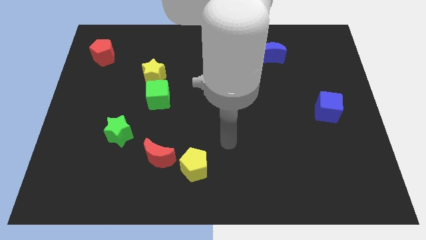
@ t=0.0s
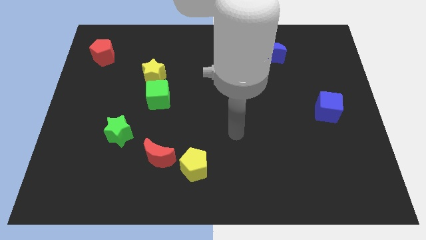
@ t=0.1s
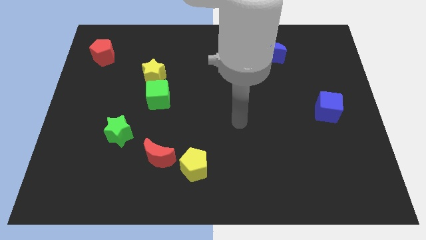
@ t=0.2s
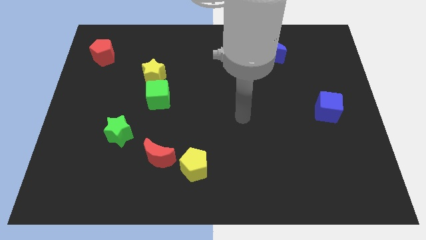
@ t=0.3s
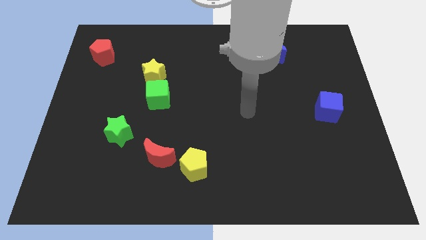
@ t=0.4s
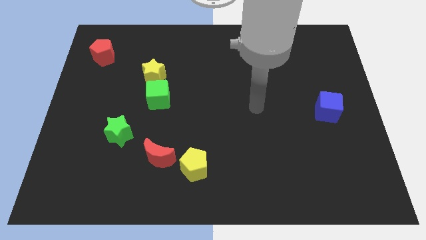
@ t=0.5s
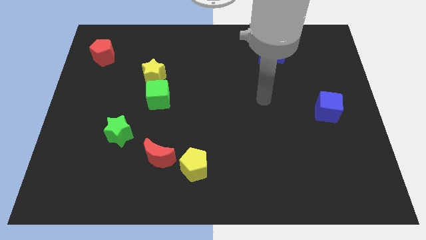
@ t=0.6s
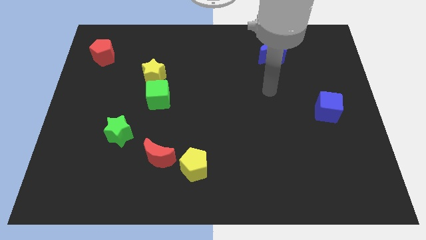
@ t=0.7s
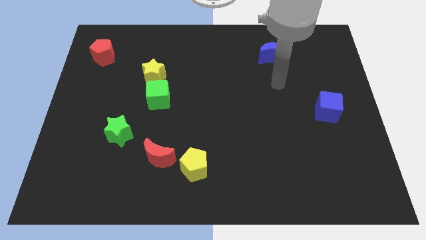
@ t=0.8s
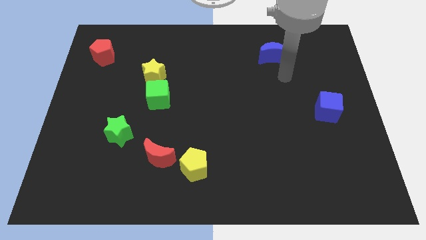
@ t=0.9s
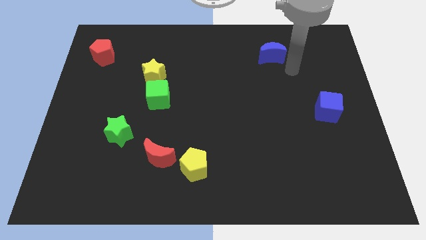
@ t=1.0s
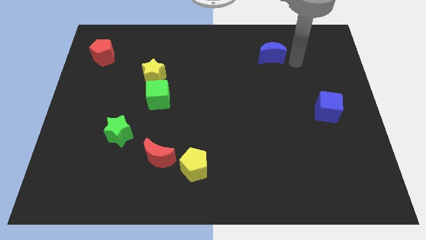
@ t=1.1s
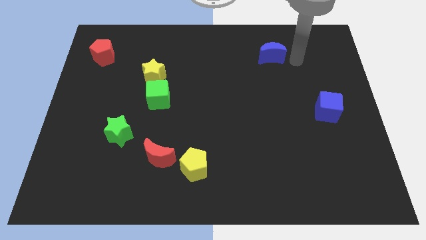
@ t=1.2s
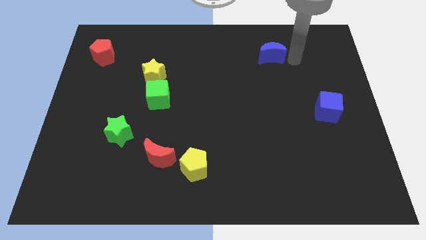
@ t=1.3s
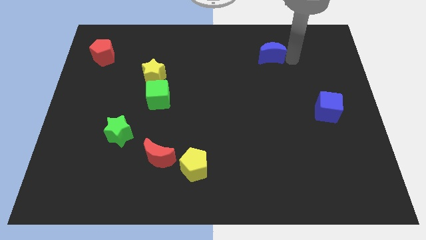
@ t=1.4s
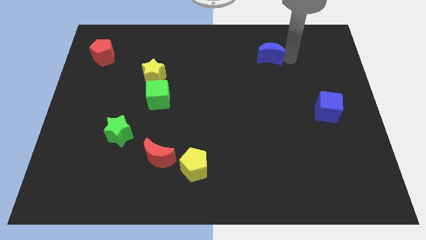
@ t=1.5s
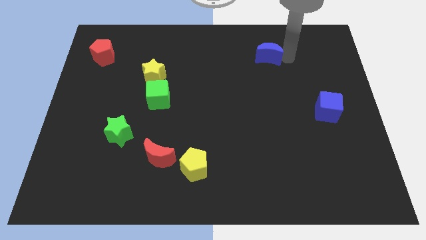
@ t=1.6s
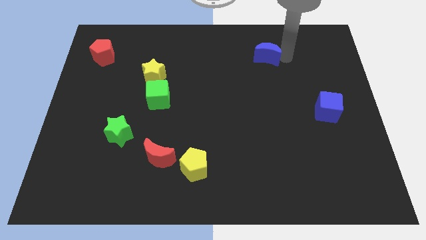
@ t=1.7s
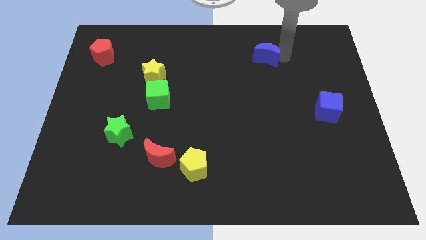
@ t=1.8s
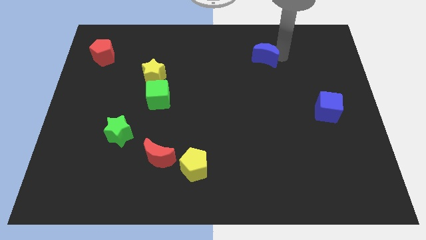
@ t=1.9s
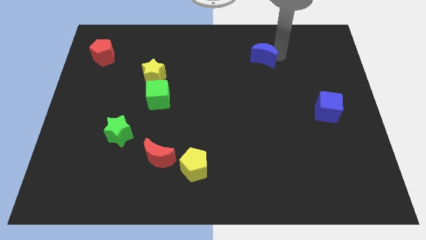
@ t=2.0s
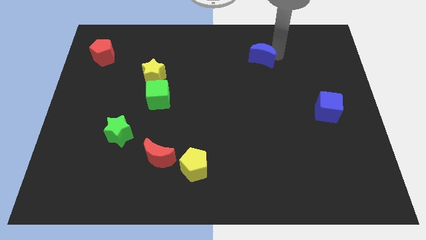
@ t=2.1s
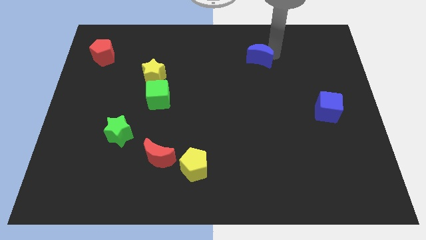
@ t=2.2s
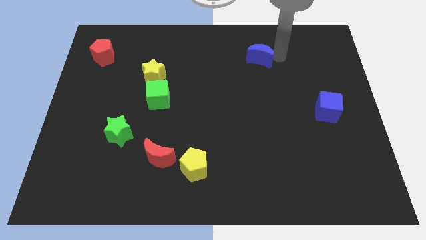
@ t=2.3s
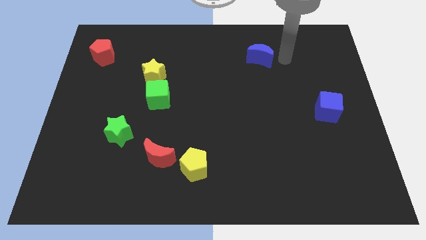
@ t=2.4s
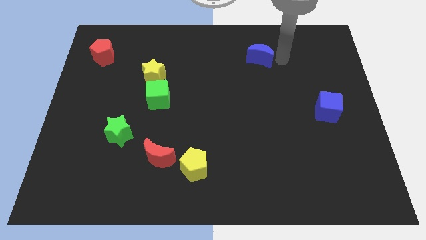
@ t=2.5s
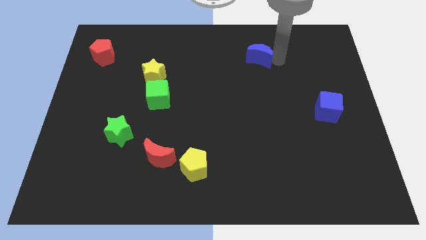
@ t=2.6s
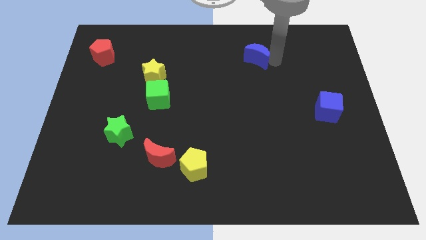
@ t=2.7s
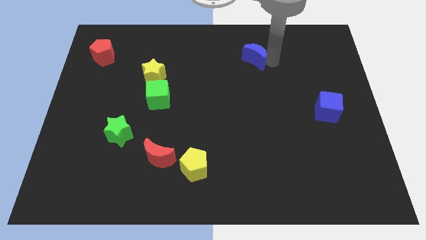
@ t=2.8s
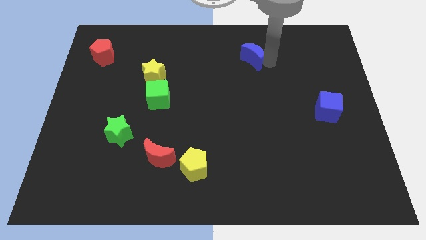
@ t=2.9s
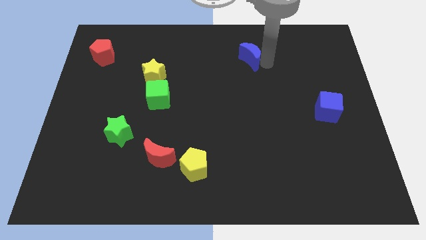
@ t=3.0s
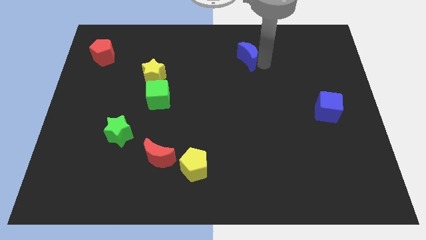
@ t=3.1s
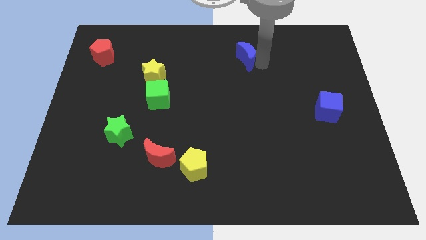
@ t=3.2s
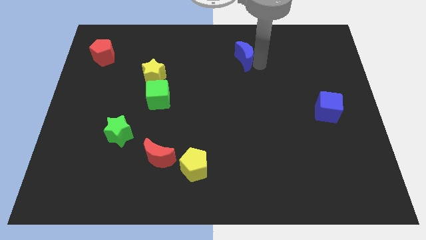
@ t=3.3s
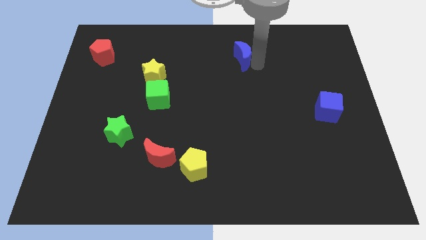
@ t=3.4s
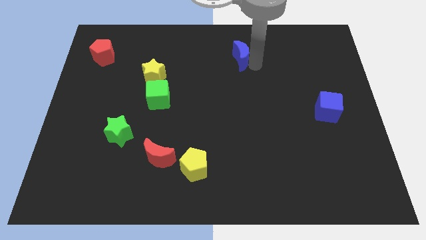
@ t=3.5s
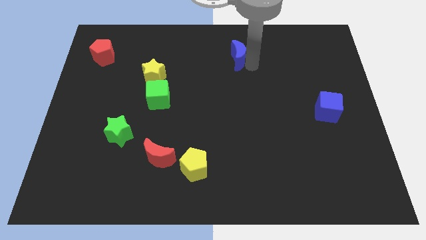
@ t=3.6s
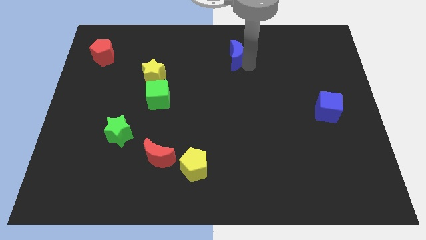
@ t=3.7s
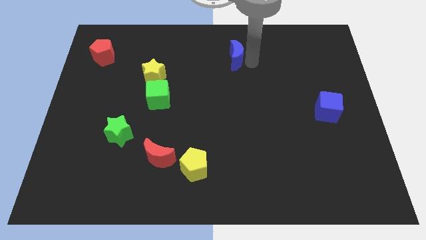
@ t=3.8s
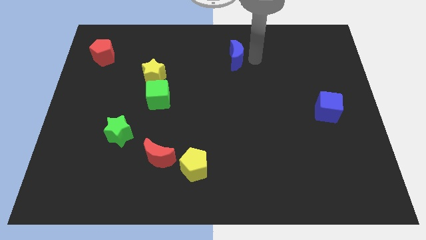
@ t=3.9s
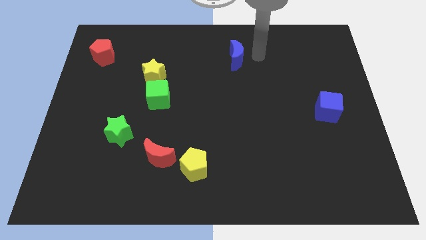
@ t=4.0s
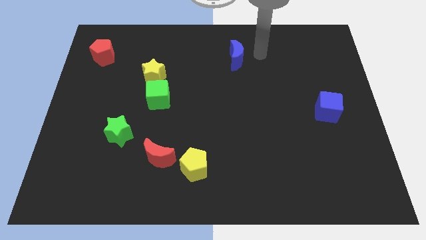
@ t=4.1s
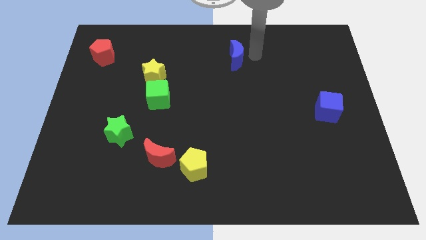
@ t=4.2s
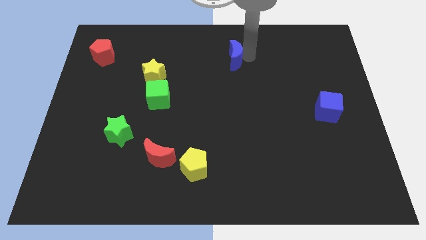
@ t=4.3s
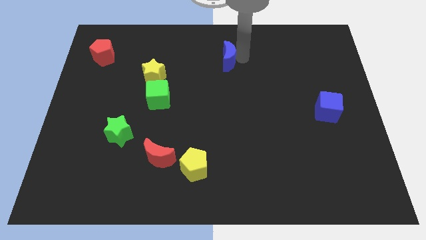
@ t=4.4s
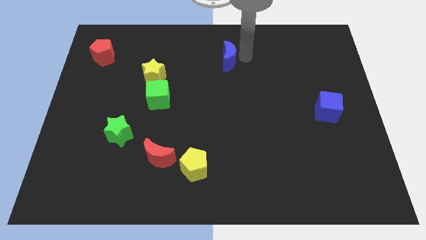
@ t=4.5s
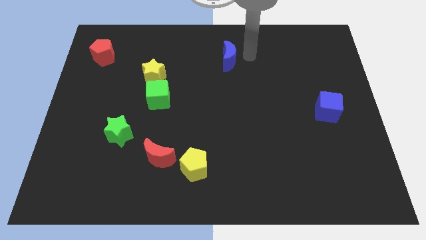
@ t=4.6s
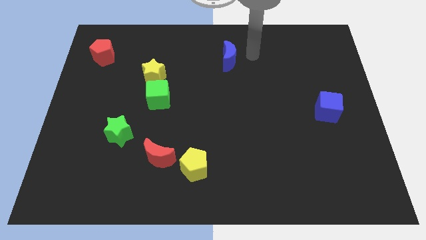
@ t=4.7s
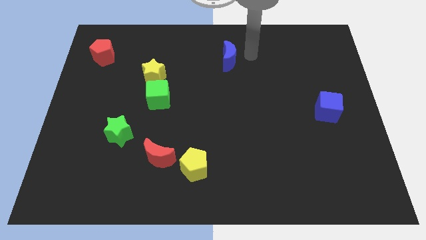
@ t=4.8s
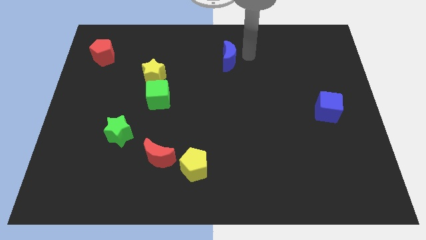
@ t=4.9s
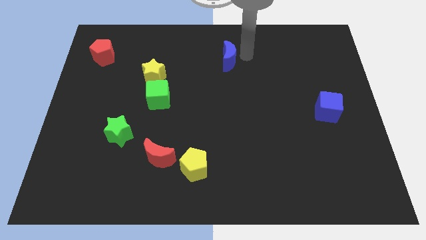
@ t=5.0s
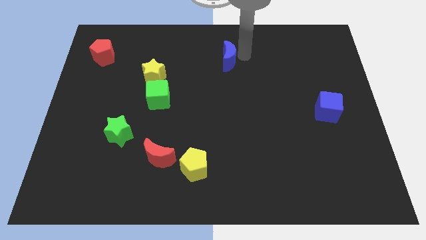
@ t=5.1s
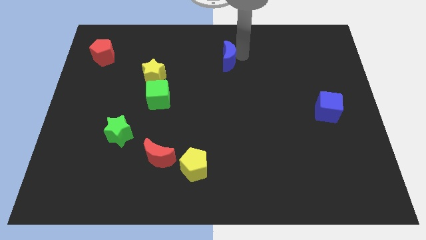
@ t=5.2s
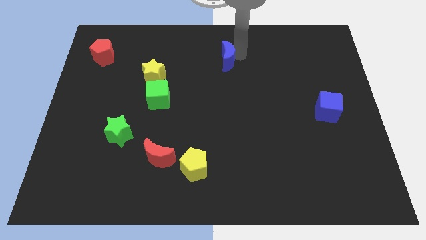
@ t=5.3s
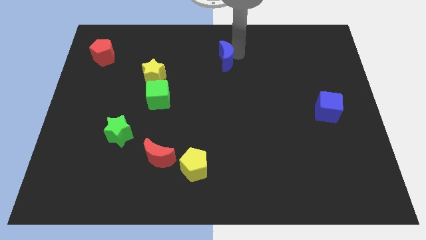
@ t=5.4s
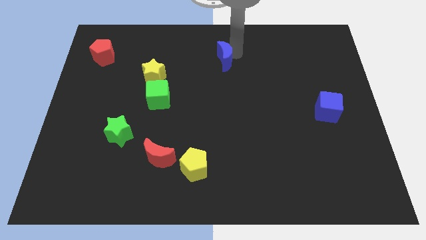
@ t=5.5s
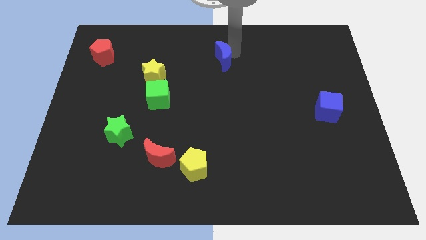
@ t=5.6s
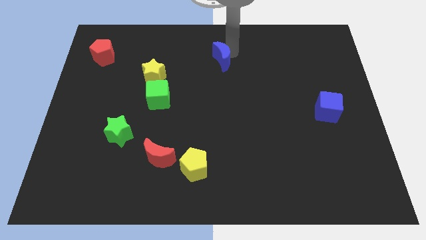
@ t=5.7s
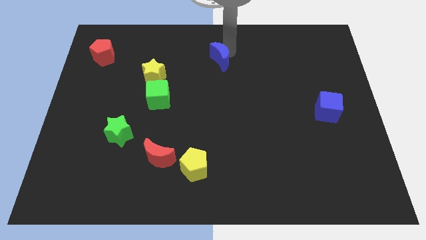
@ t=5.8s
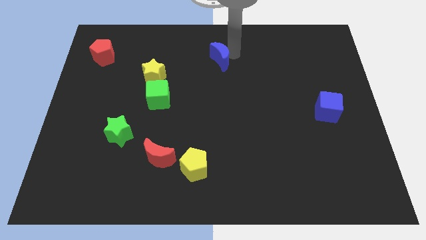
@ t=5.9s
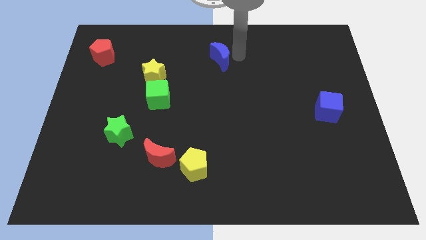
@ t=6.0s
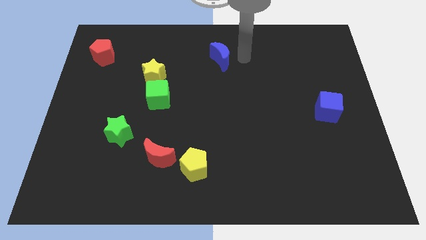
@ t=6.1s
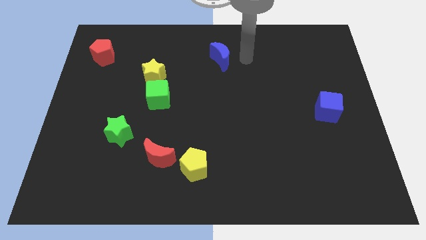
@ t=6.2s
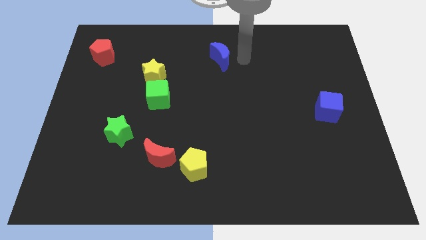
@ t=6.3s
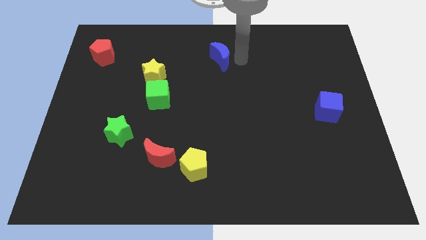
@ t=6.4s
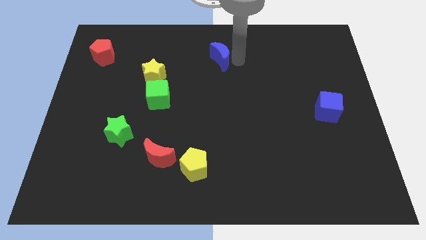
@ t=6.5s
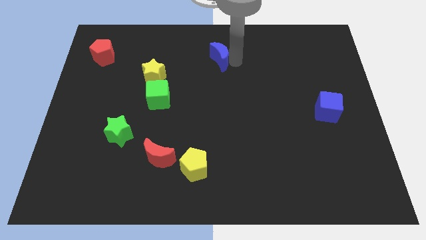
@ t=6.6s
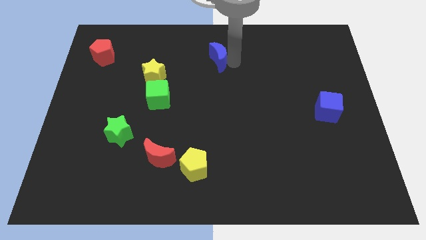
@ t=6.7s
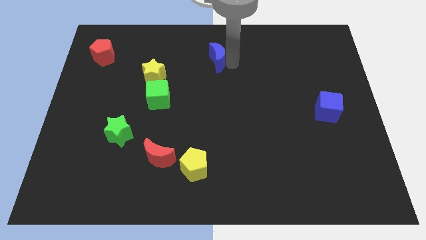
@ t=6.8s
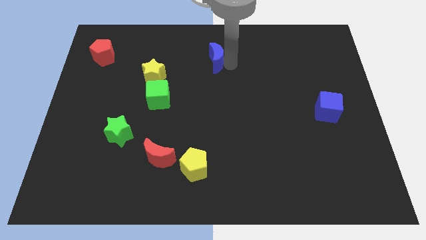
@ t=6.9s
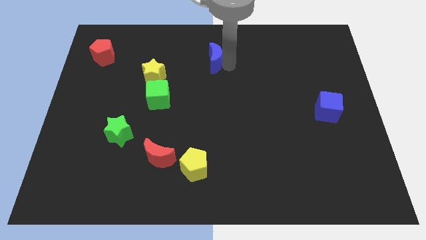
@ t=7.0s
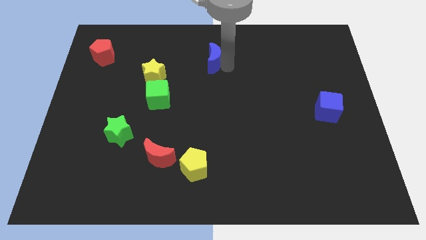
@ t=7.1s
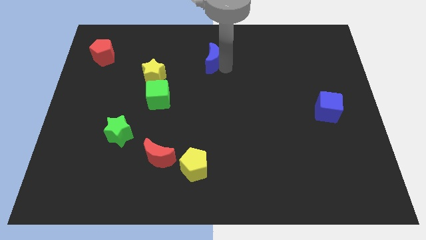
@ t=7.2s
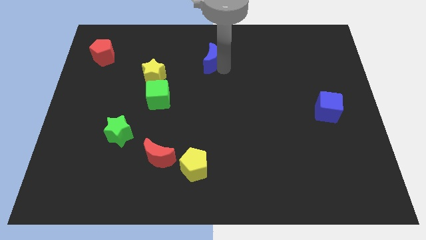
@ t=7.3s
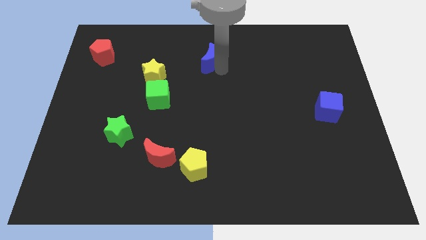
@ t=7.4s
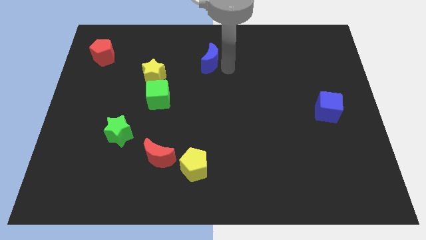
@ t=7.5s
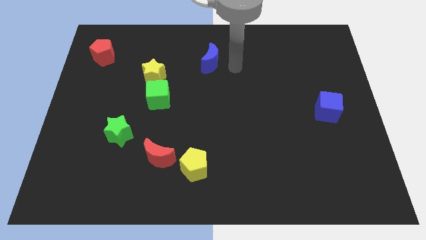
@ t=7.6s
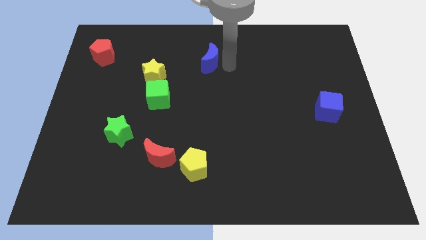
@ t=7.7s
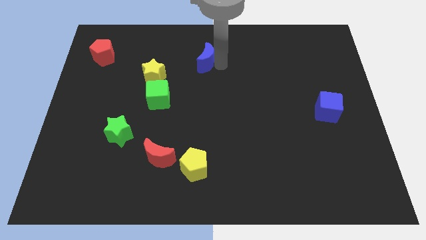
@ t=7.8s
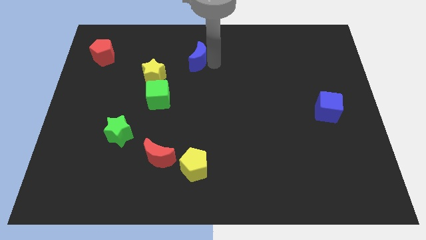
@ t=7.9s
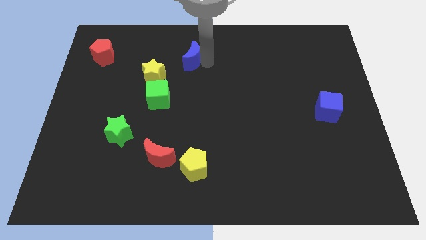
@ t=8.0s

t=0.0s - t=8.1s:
move the blue moon left
